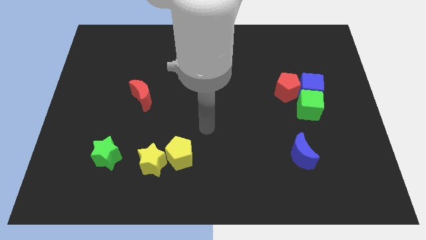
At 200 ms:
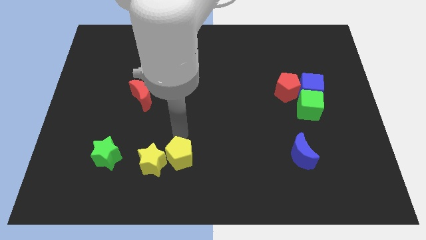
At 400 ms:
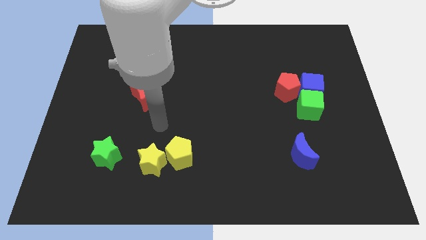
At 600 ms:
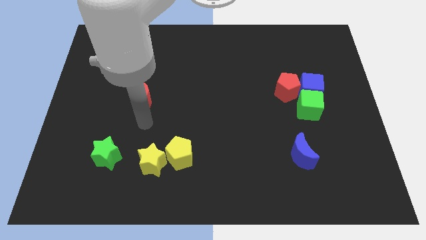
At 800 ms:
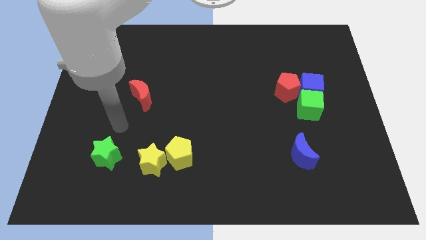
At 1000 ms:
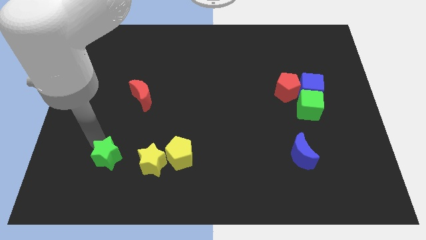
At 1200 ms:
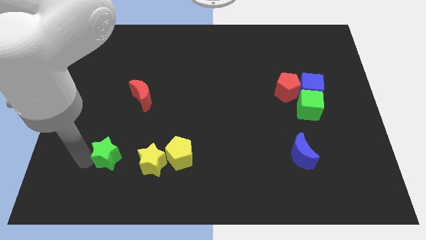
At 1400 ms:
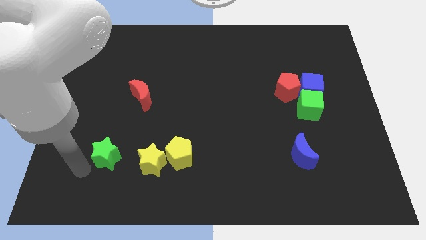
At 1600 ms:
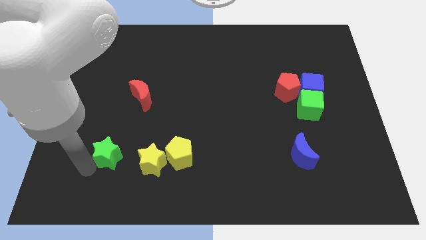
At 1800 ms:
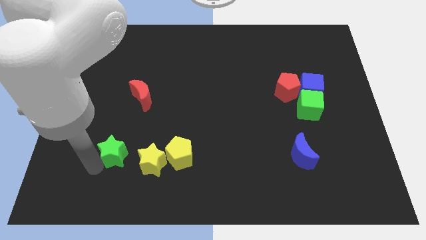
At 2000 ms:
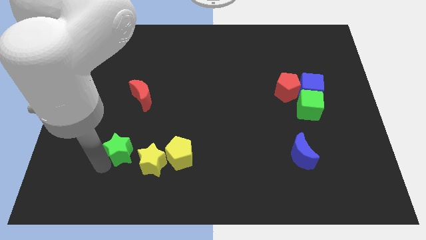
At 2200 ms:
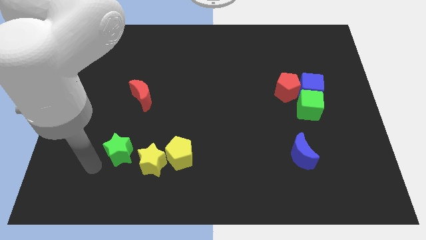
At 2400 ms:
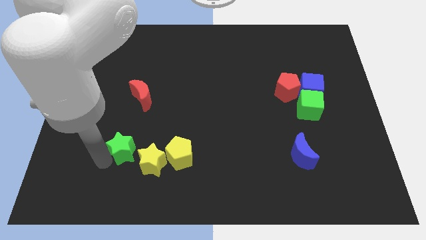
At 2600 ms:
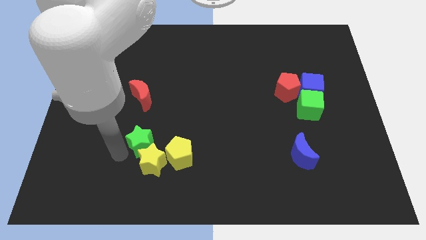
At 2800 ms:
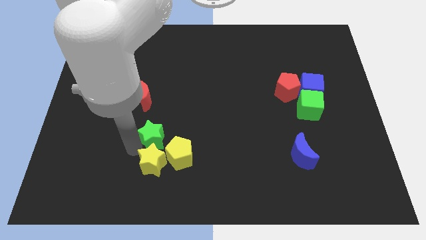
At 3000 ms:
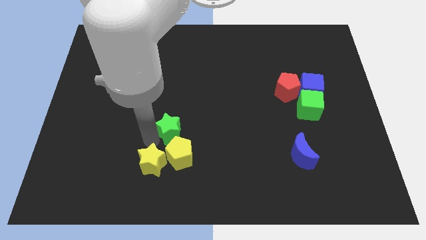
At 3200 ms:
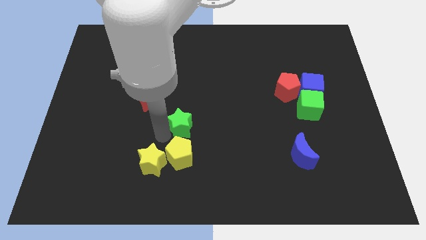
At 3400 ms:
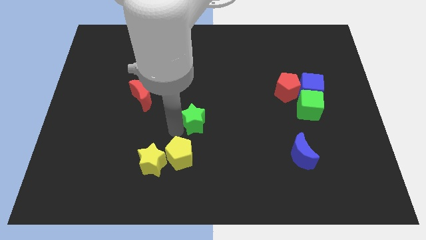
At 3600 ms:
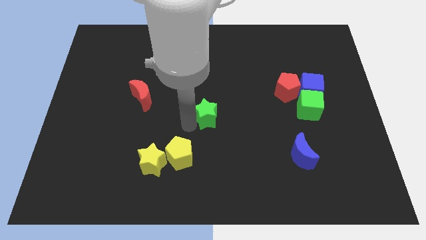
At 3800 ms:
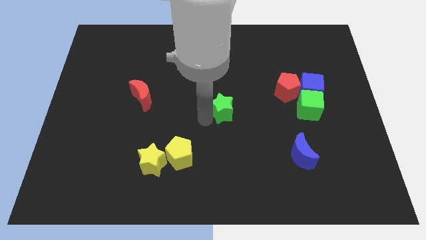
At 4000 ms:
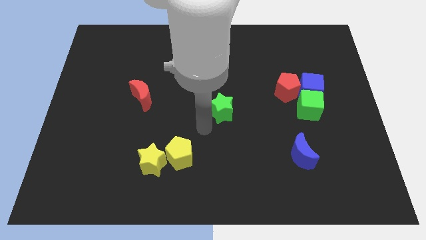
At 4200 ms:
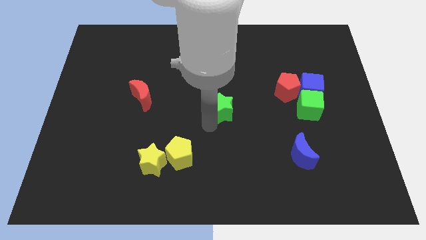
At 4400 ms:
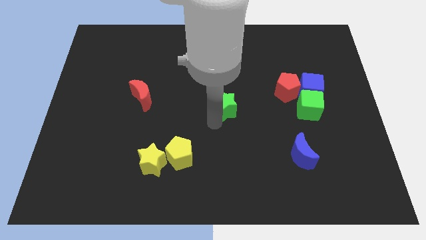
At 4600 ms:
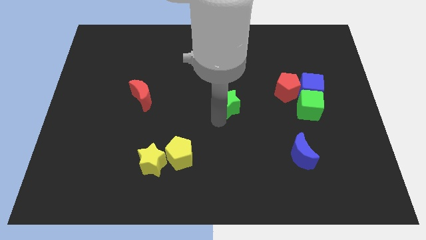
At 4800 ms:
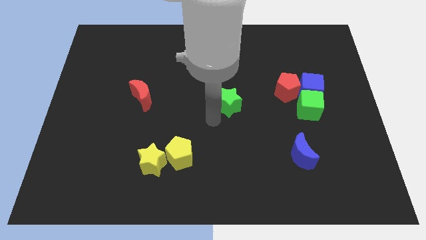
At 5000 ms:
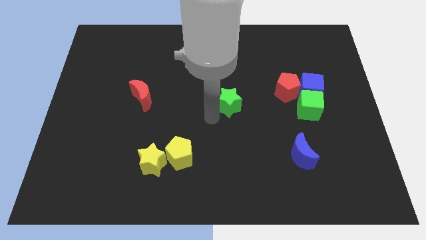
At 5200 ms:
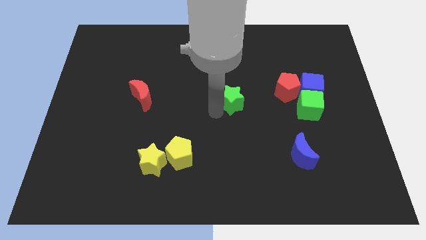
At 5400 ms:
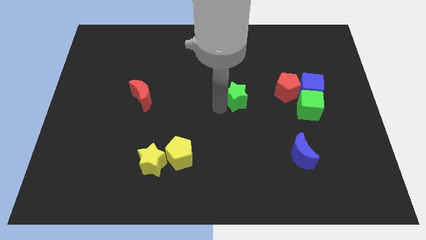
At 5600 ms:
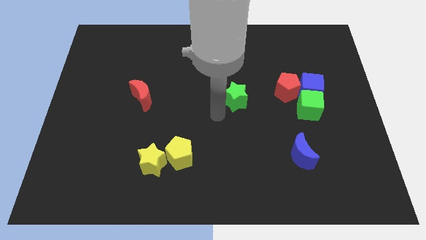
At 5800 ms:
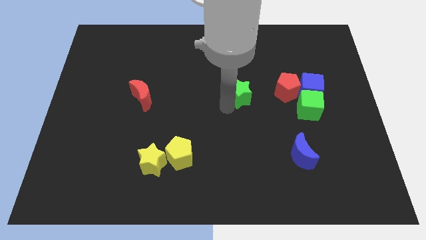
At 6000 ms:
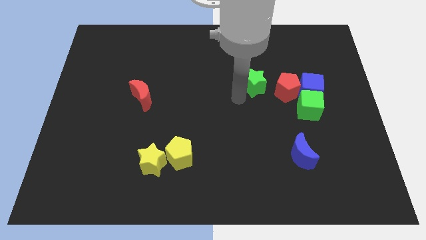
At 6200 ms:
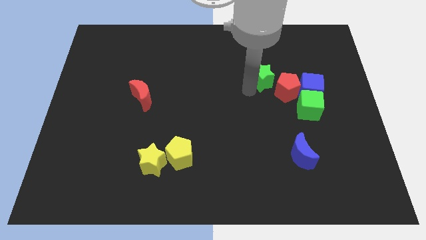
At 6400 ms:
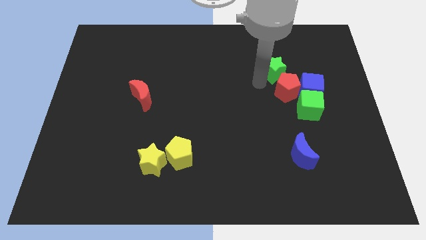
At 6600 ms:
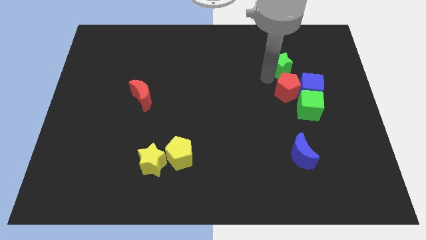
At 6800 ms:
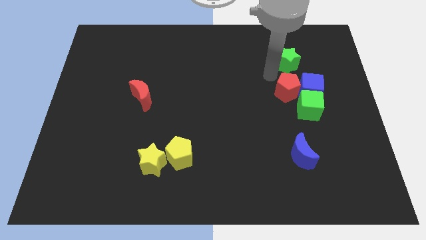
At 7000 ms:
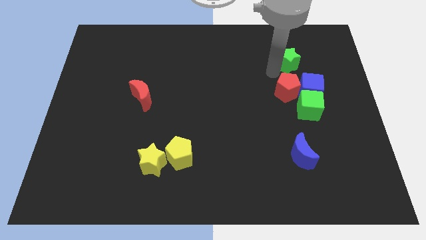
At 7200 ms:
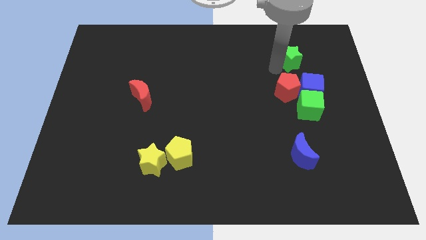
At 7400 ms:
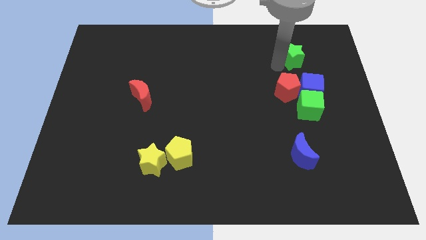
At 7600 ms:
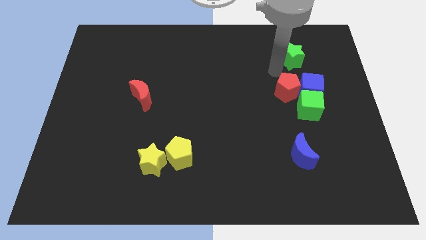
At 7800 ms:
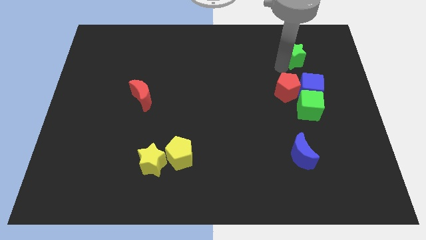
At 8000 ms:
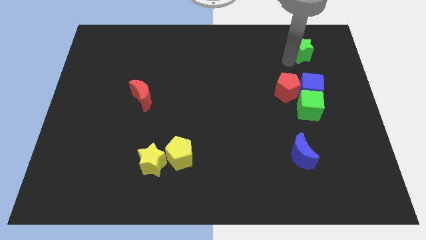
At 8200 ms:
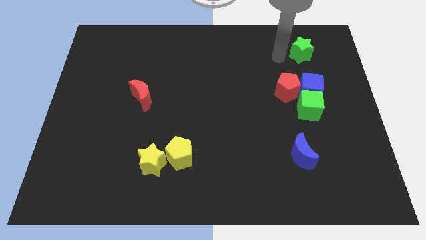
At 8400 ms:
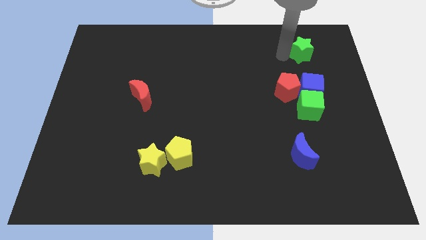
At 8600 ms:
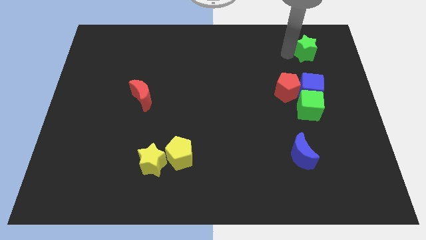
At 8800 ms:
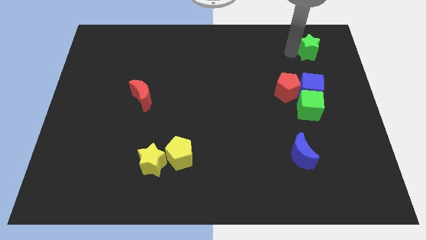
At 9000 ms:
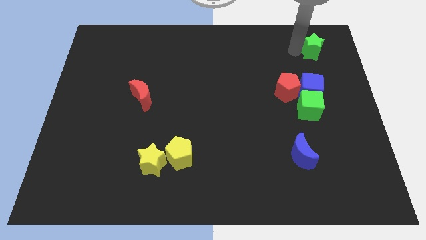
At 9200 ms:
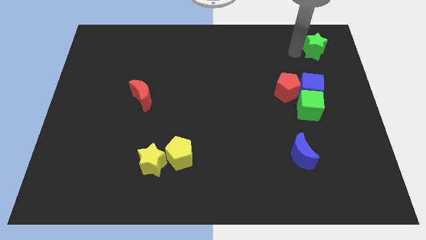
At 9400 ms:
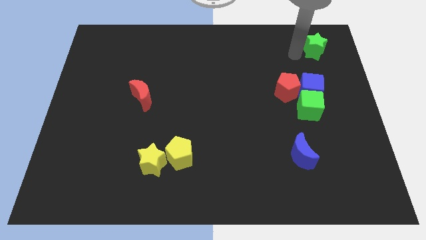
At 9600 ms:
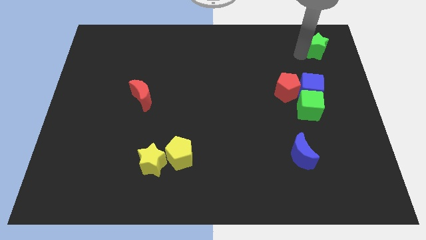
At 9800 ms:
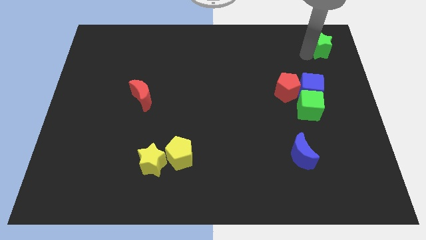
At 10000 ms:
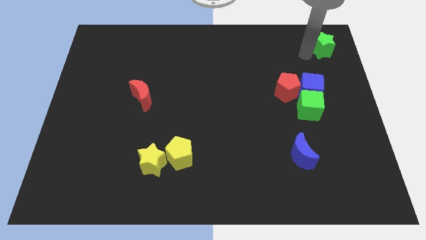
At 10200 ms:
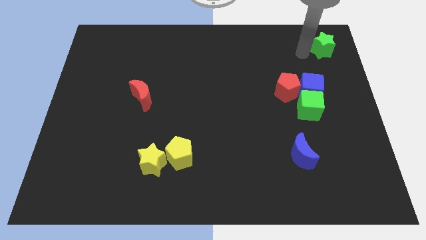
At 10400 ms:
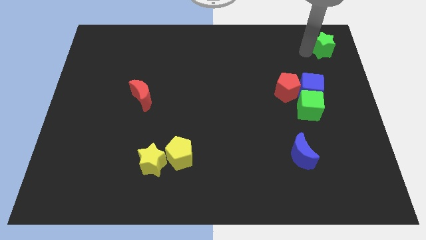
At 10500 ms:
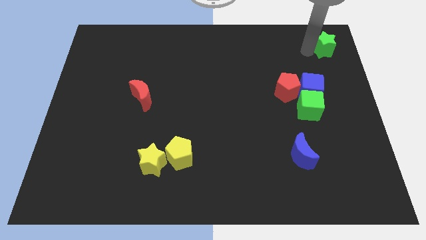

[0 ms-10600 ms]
push the green star to the top right

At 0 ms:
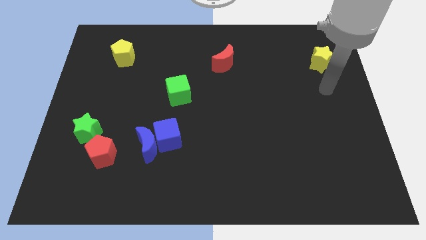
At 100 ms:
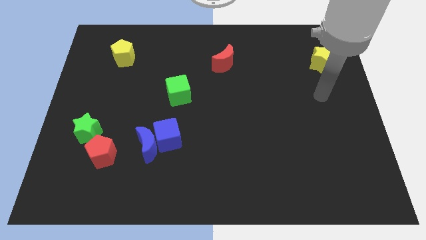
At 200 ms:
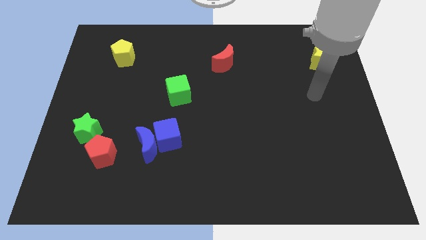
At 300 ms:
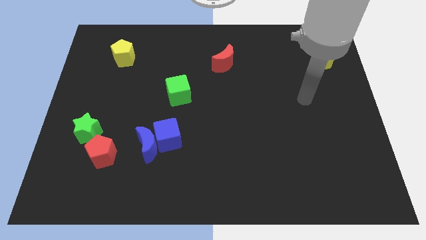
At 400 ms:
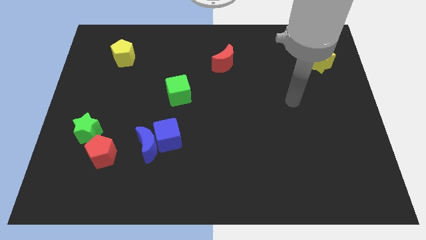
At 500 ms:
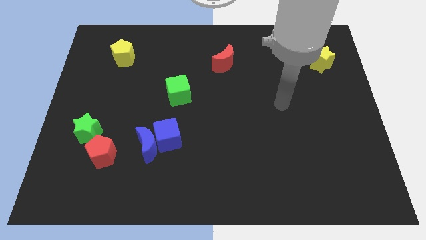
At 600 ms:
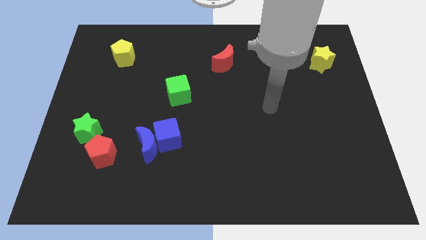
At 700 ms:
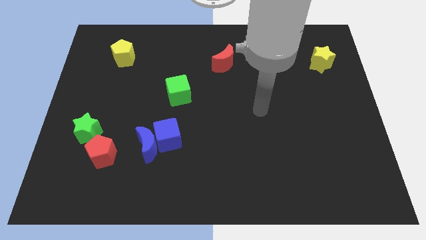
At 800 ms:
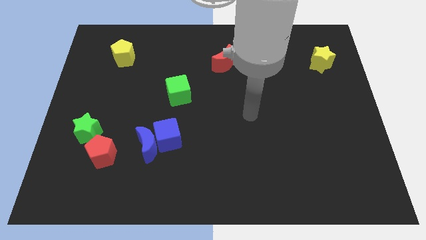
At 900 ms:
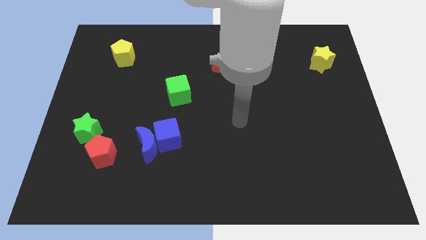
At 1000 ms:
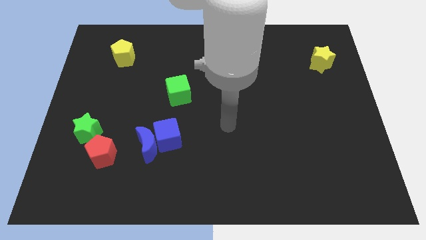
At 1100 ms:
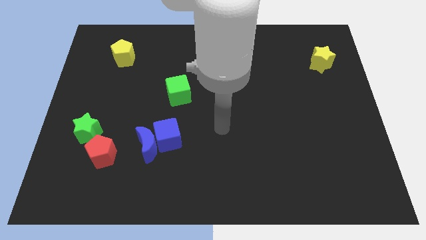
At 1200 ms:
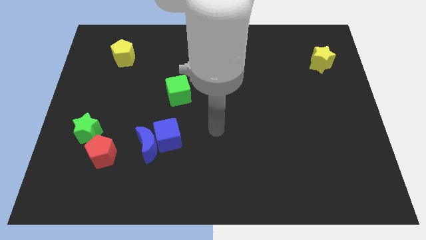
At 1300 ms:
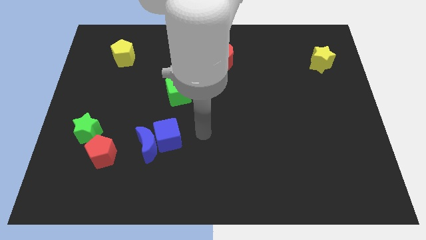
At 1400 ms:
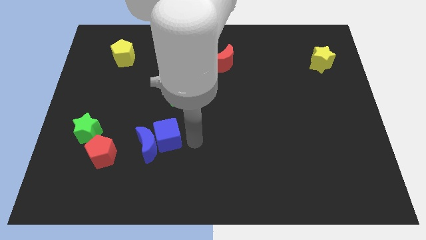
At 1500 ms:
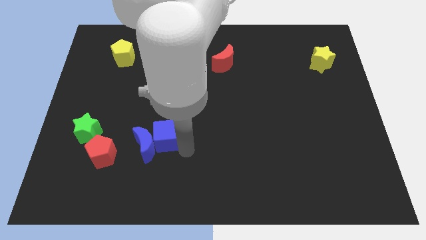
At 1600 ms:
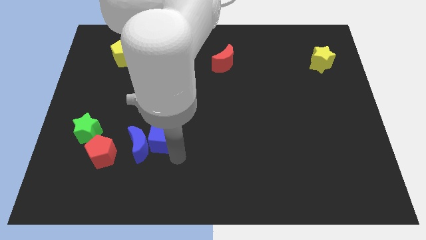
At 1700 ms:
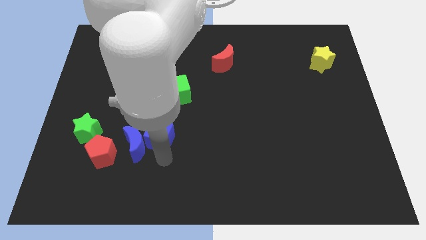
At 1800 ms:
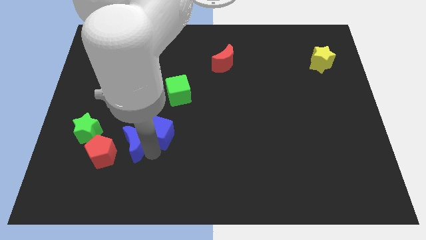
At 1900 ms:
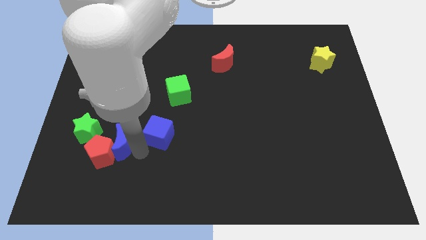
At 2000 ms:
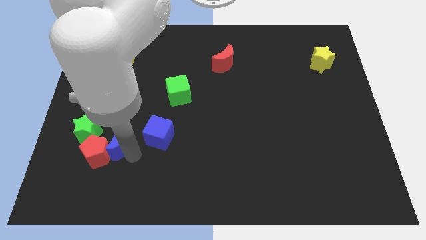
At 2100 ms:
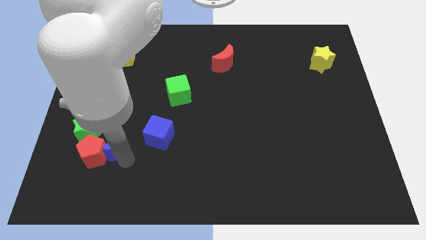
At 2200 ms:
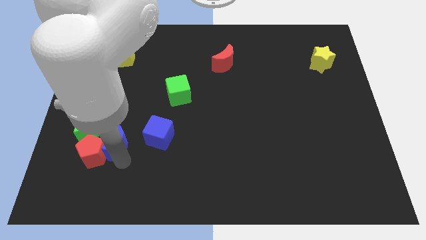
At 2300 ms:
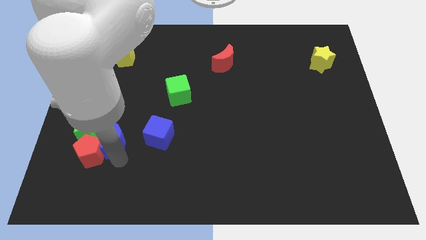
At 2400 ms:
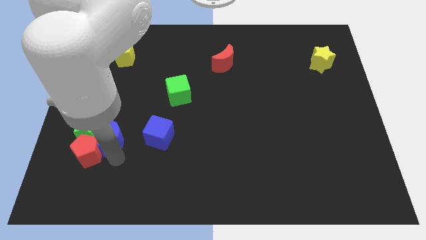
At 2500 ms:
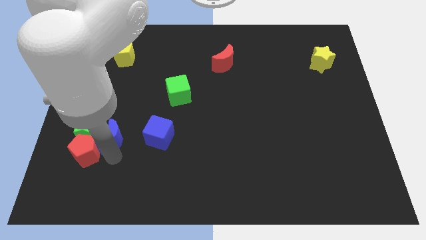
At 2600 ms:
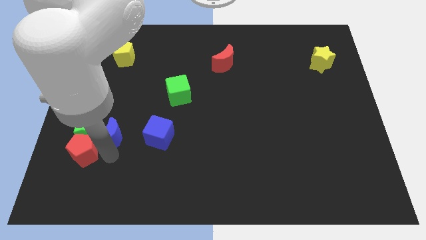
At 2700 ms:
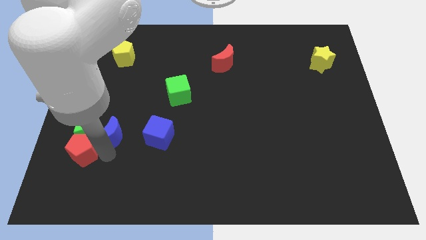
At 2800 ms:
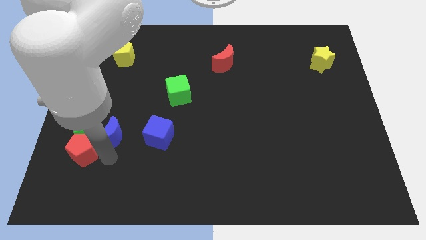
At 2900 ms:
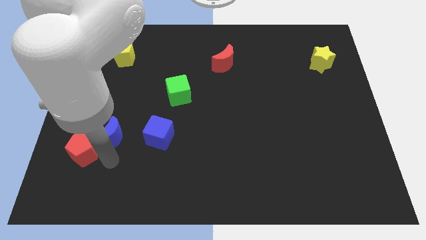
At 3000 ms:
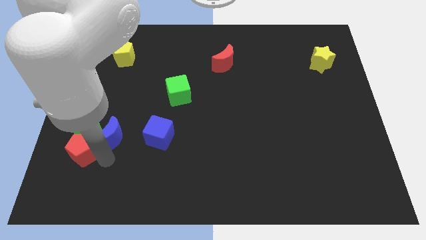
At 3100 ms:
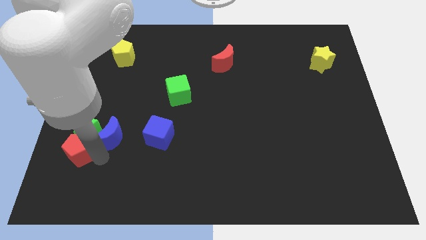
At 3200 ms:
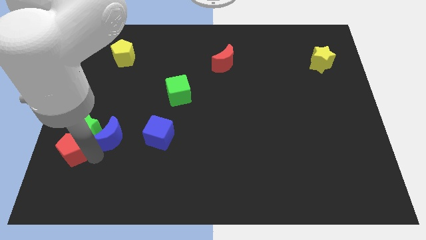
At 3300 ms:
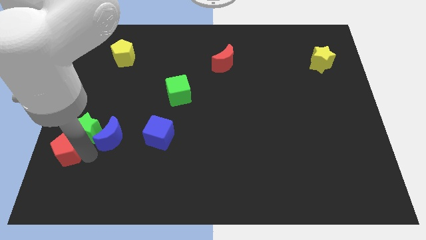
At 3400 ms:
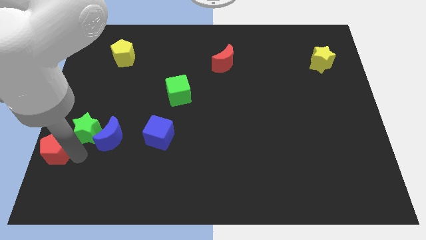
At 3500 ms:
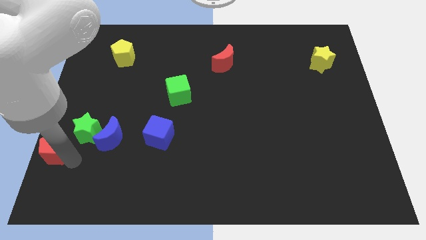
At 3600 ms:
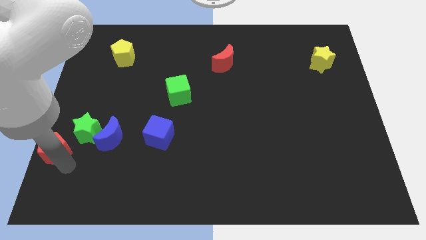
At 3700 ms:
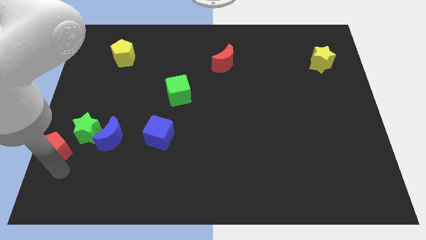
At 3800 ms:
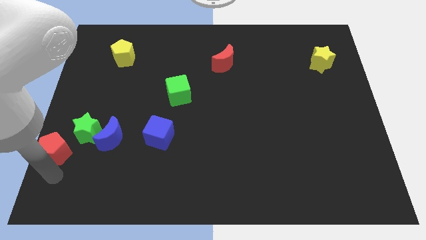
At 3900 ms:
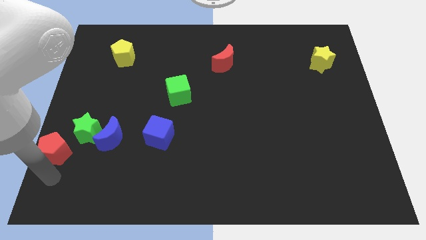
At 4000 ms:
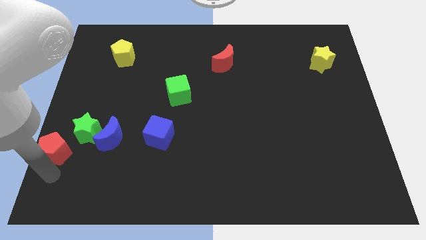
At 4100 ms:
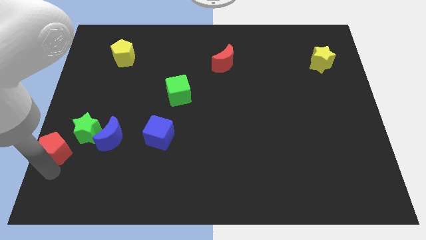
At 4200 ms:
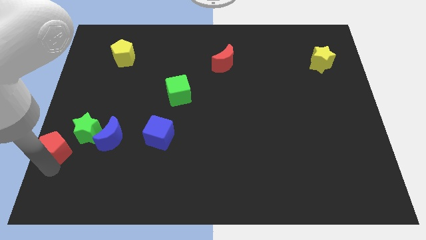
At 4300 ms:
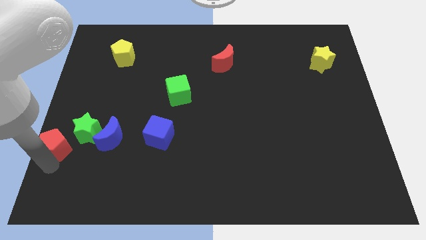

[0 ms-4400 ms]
put the red pentagon to the left side
